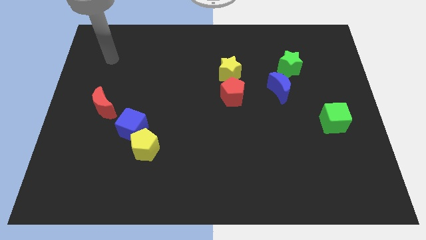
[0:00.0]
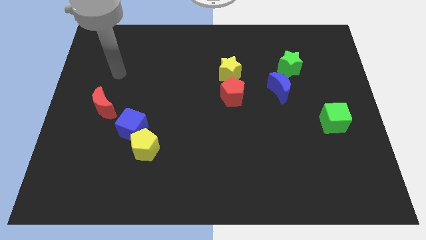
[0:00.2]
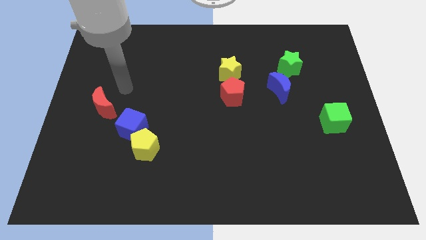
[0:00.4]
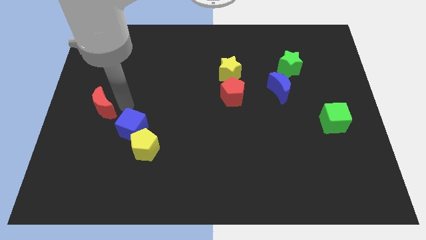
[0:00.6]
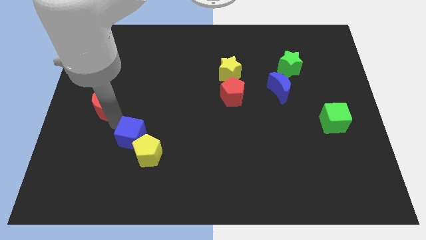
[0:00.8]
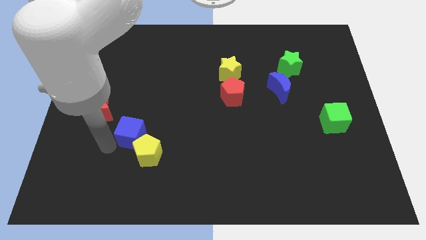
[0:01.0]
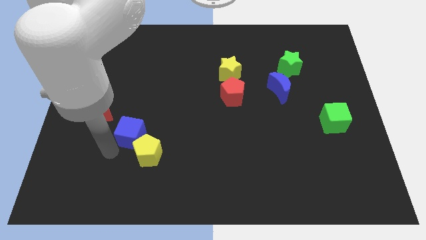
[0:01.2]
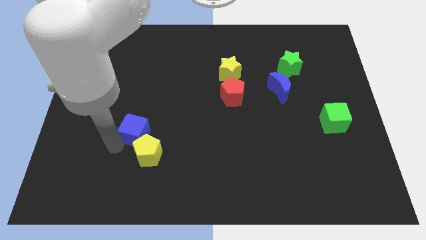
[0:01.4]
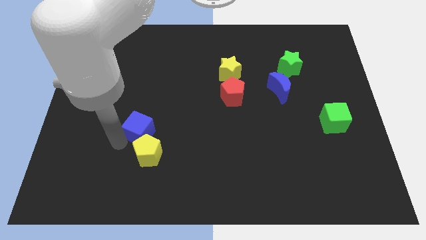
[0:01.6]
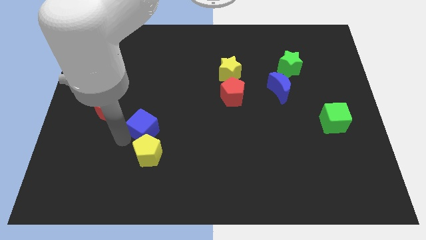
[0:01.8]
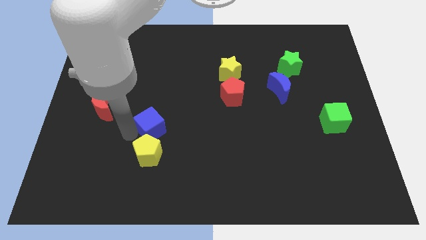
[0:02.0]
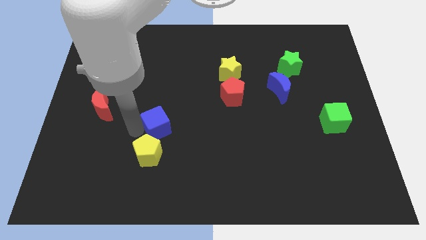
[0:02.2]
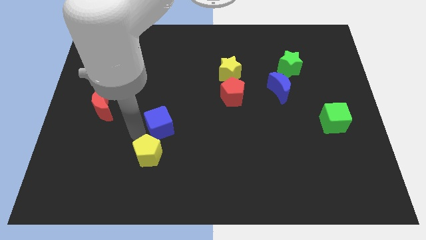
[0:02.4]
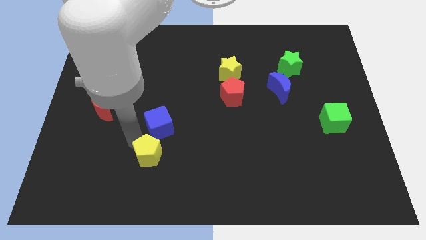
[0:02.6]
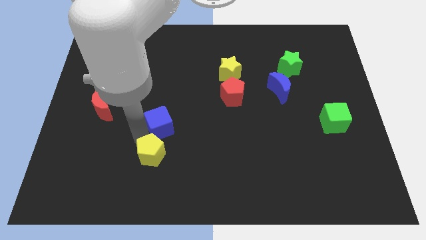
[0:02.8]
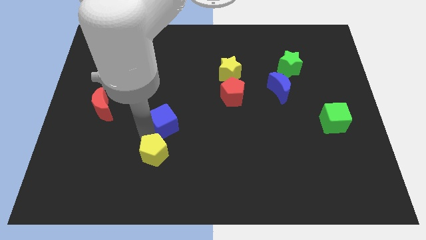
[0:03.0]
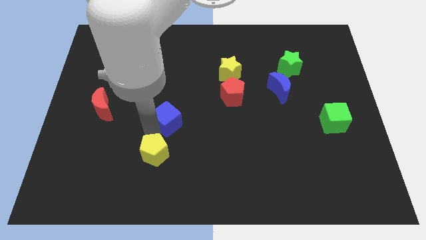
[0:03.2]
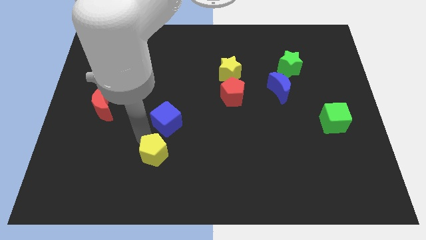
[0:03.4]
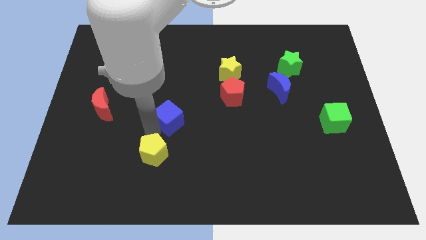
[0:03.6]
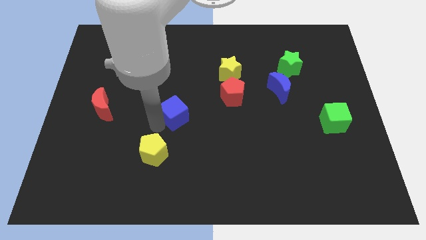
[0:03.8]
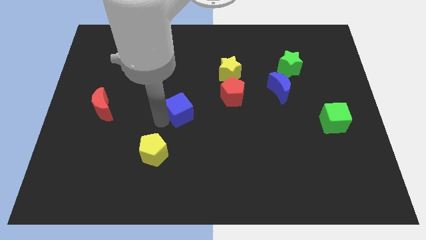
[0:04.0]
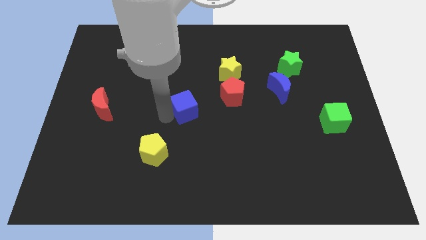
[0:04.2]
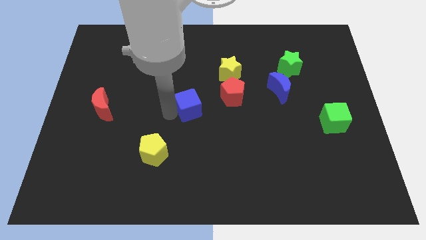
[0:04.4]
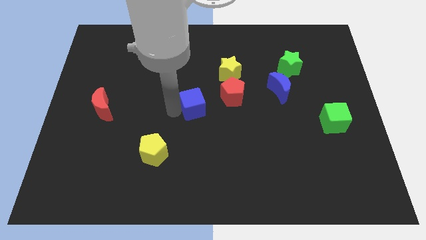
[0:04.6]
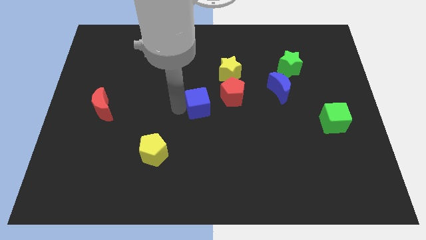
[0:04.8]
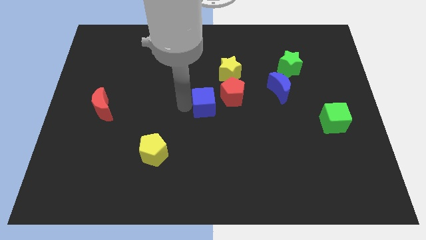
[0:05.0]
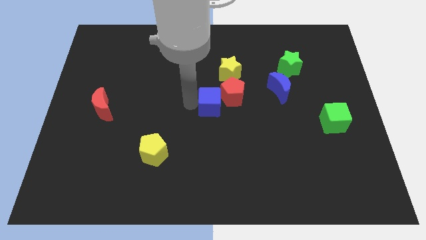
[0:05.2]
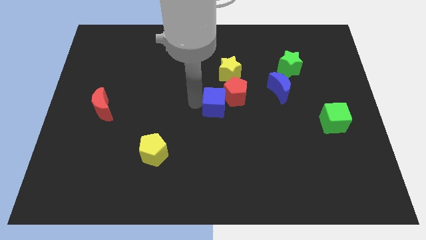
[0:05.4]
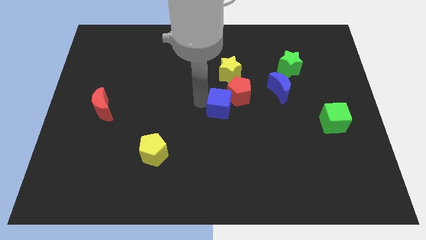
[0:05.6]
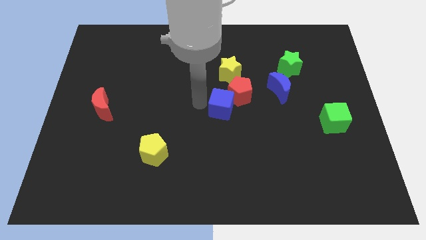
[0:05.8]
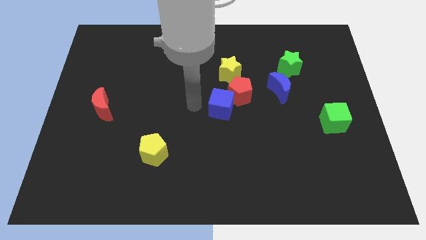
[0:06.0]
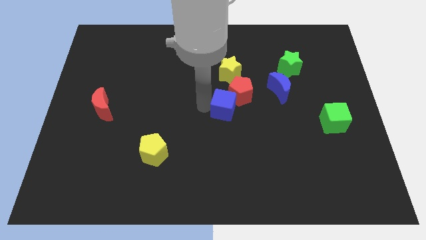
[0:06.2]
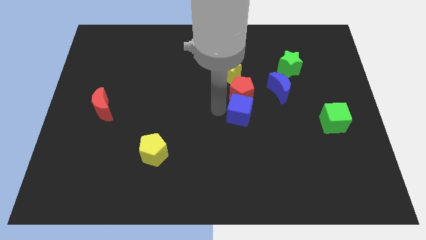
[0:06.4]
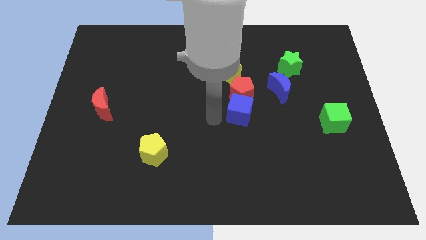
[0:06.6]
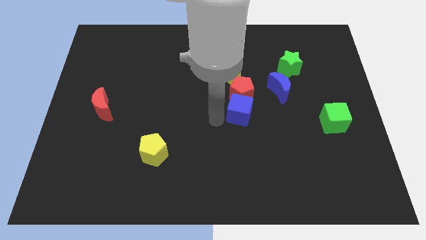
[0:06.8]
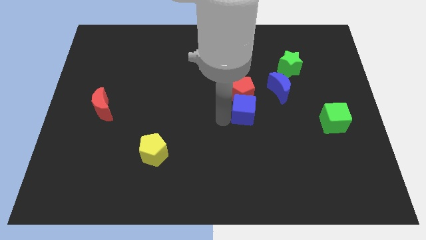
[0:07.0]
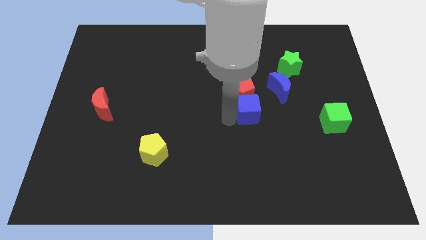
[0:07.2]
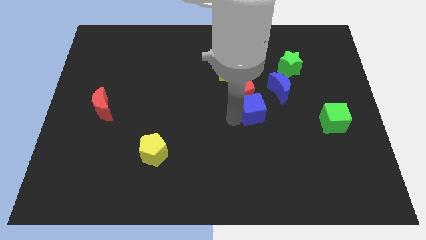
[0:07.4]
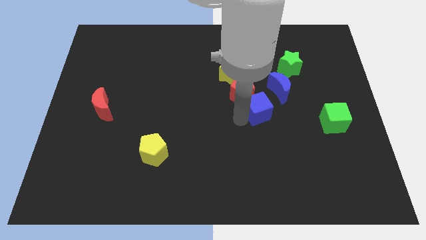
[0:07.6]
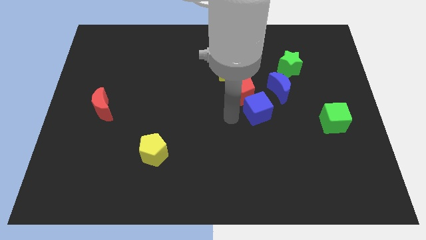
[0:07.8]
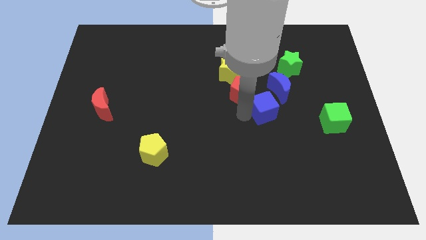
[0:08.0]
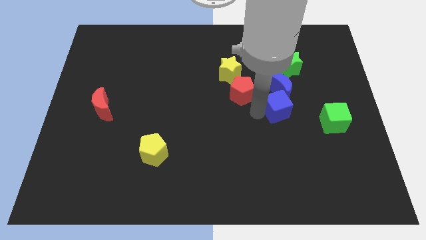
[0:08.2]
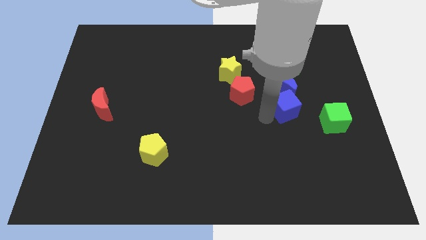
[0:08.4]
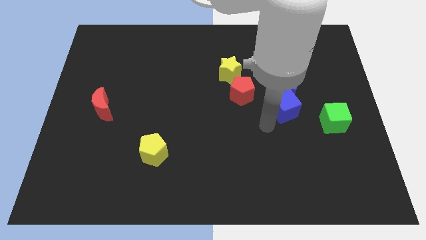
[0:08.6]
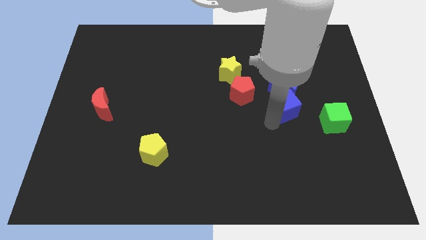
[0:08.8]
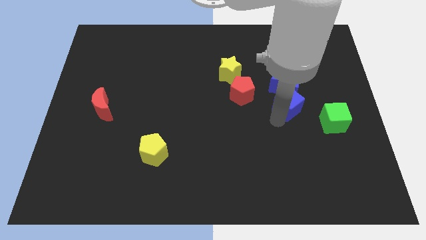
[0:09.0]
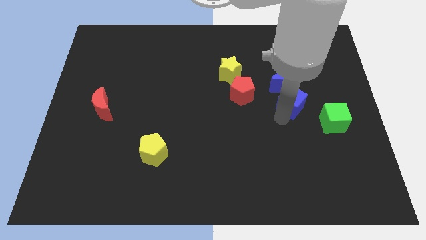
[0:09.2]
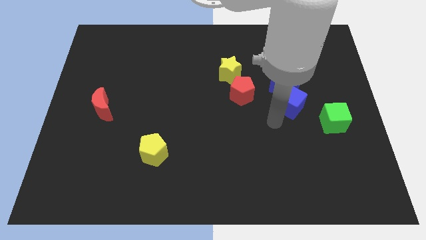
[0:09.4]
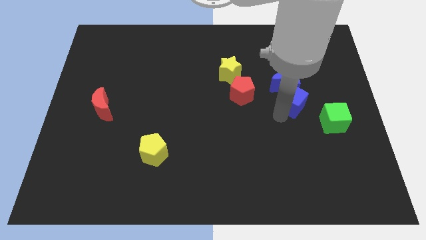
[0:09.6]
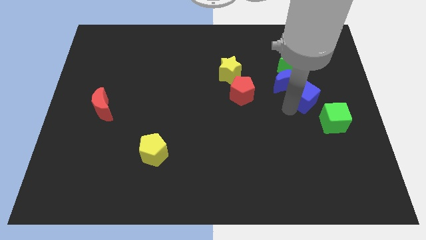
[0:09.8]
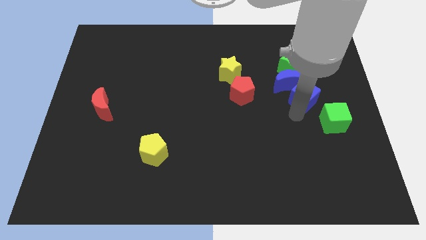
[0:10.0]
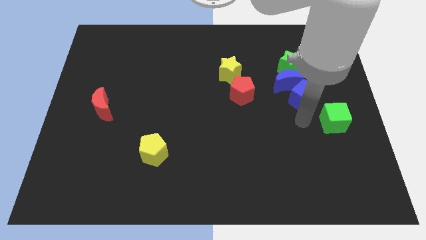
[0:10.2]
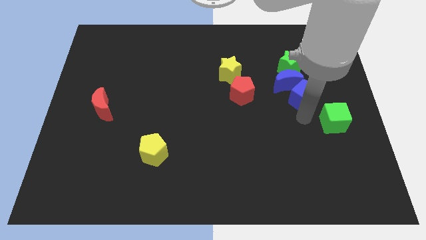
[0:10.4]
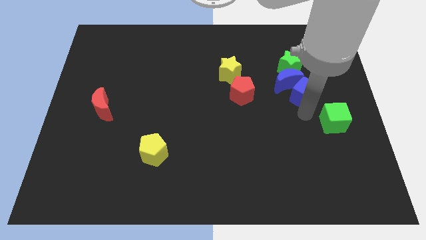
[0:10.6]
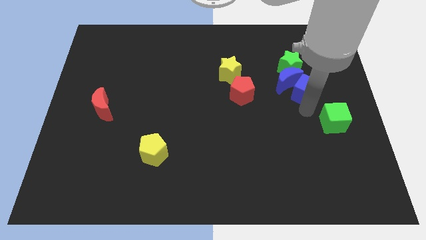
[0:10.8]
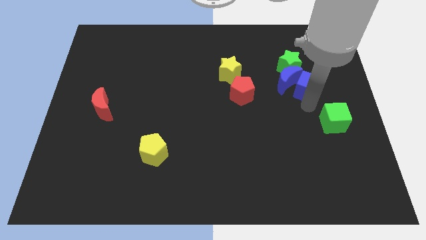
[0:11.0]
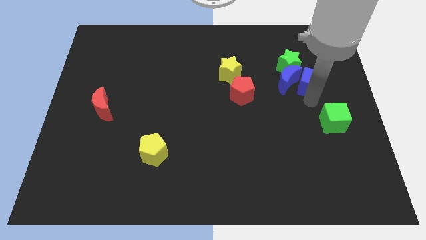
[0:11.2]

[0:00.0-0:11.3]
slide the blue cube to the top right side of the blue moon

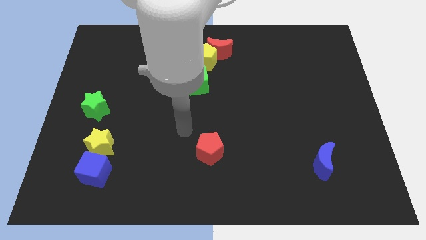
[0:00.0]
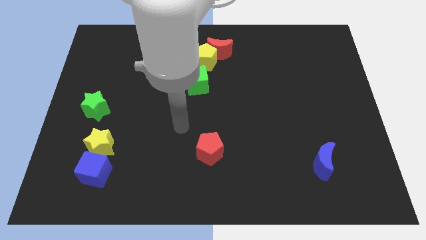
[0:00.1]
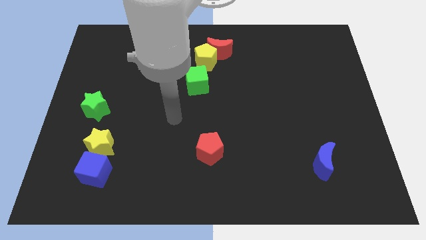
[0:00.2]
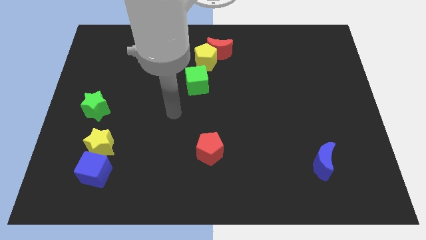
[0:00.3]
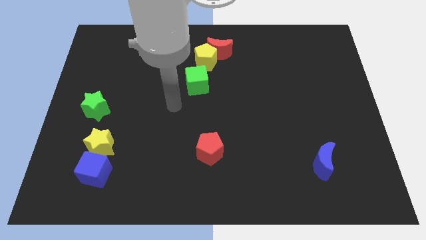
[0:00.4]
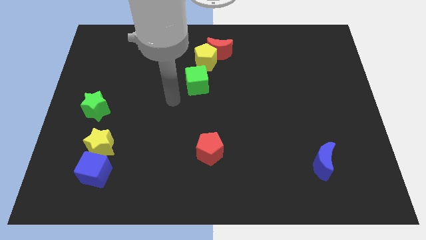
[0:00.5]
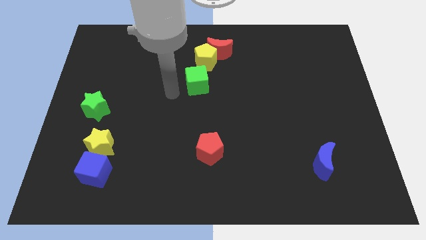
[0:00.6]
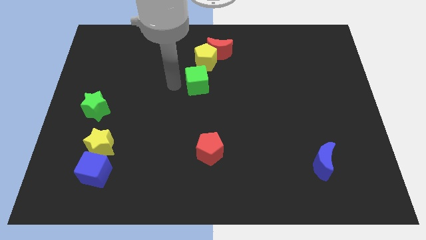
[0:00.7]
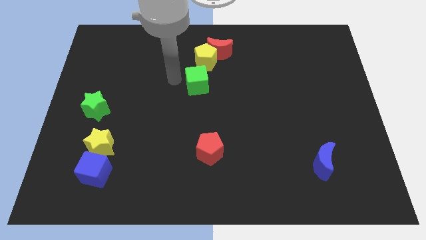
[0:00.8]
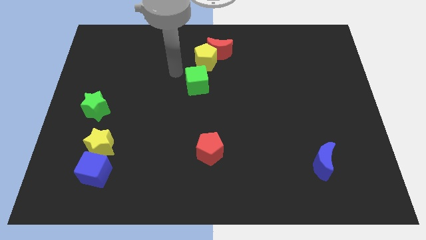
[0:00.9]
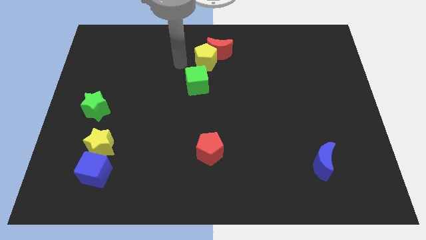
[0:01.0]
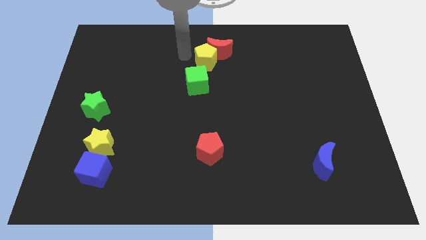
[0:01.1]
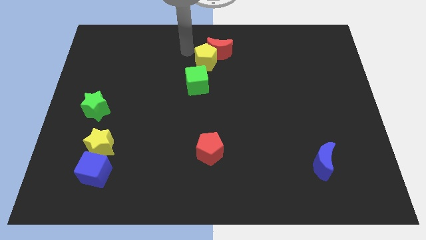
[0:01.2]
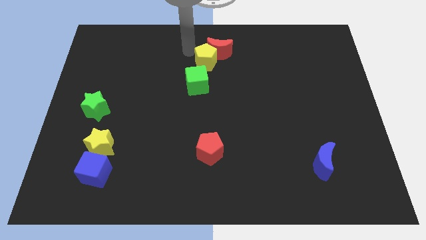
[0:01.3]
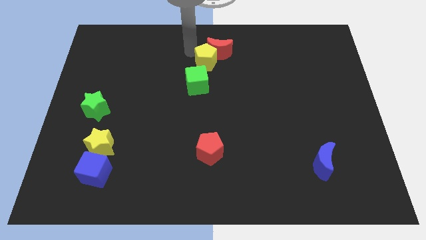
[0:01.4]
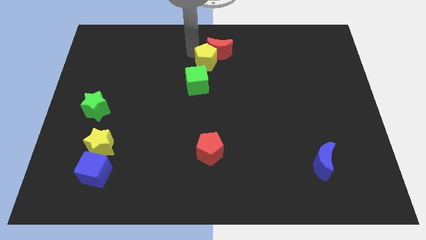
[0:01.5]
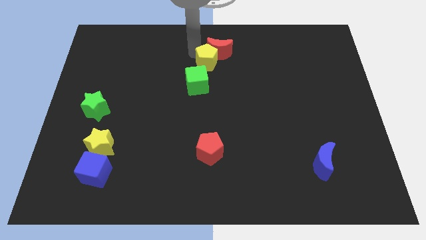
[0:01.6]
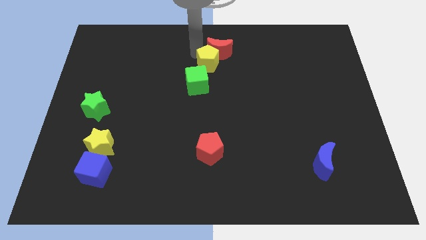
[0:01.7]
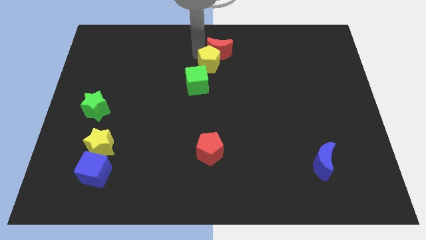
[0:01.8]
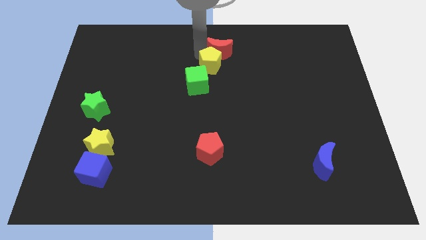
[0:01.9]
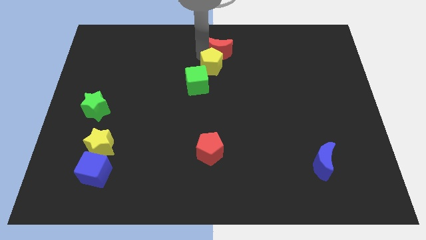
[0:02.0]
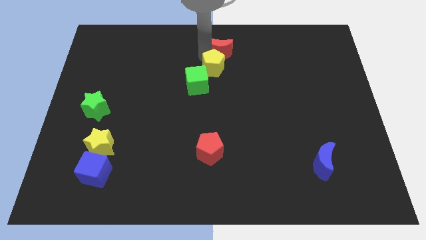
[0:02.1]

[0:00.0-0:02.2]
put the yellow pentagon to the bottom right of the red moon

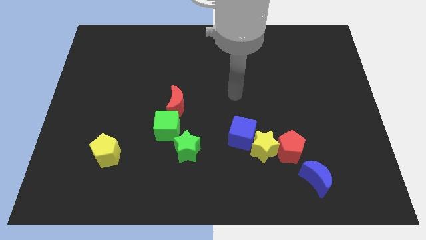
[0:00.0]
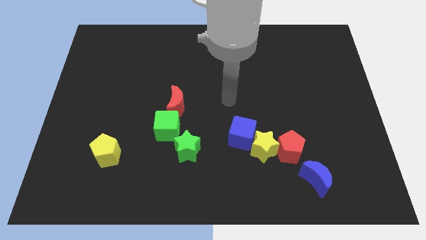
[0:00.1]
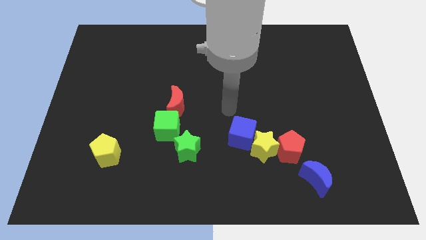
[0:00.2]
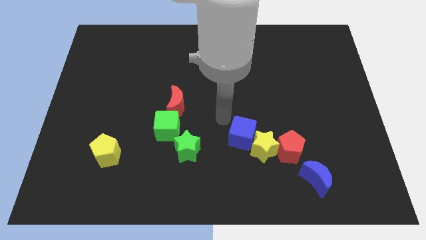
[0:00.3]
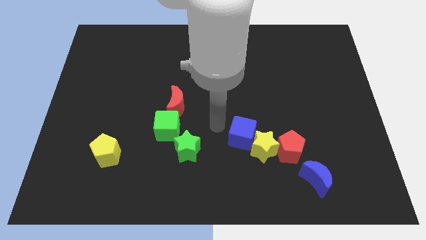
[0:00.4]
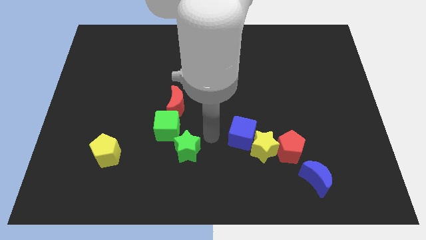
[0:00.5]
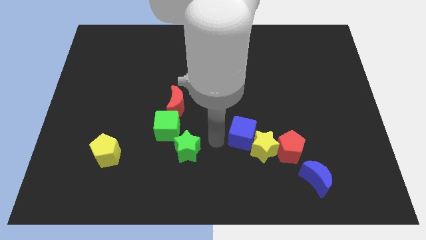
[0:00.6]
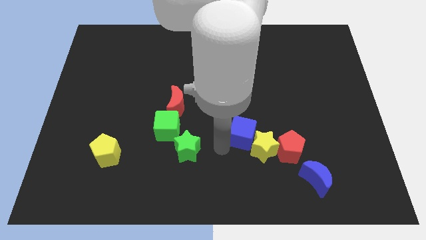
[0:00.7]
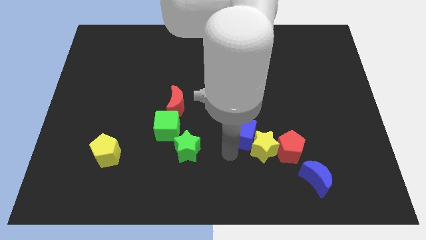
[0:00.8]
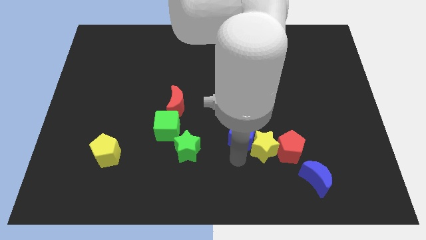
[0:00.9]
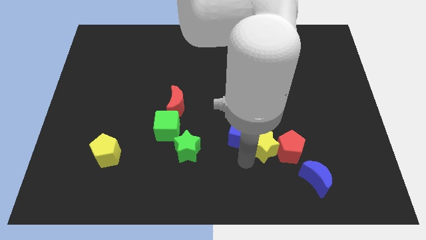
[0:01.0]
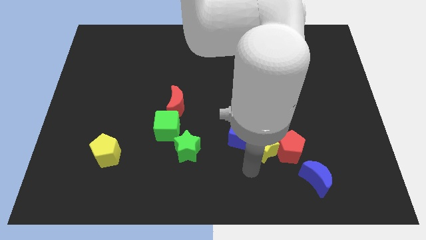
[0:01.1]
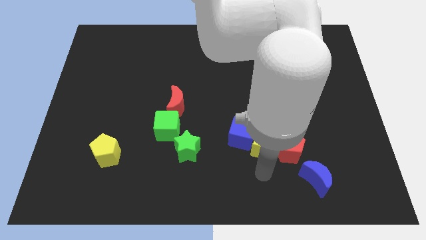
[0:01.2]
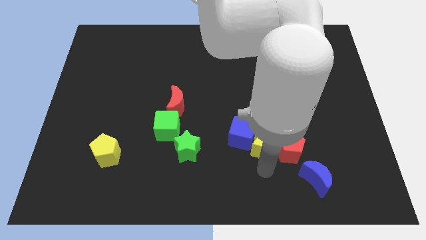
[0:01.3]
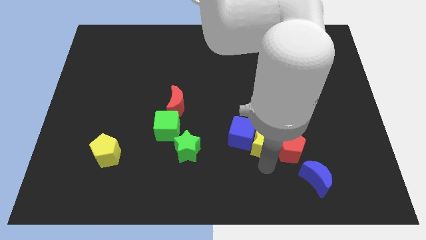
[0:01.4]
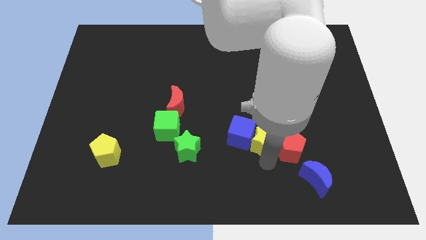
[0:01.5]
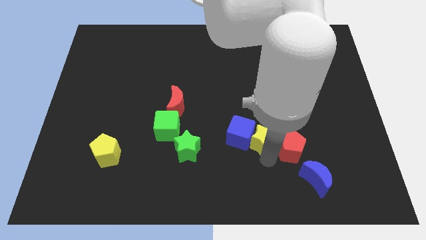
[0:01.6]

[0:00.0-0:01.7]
move the yellow star to the top right of the blue cube
